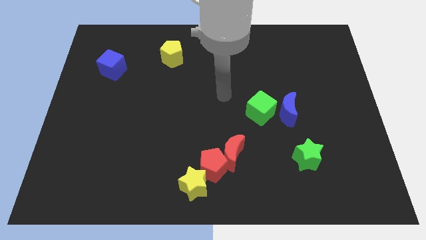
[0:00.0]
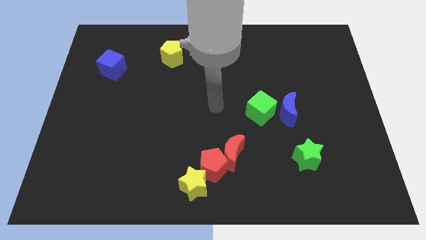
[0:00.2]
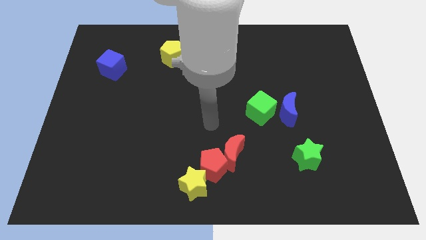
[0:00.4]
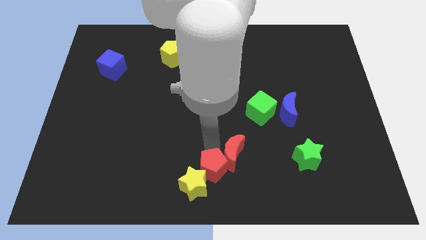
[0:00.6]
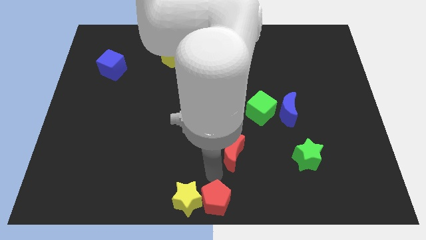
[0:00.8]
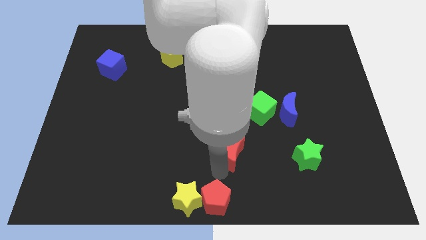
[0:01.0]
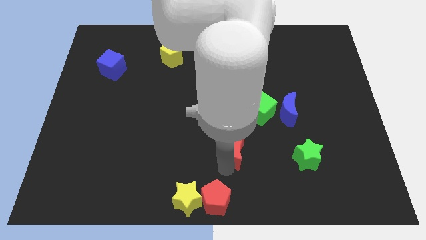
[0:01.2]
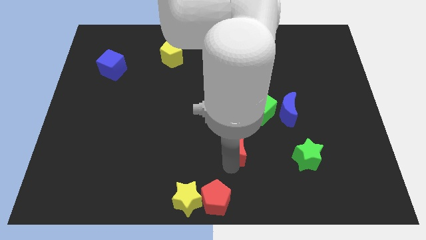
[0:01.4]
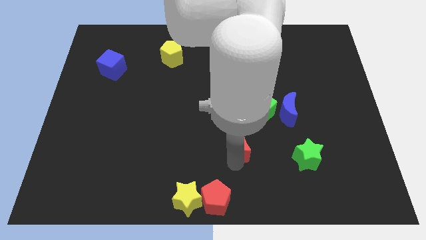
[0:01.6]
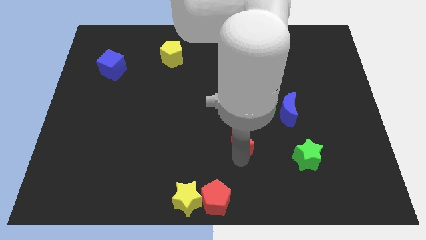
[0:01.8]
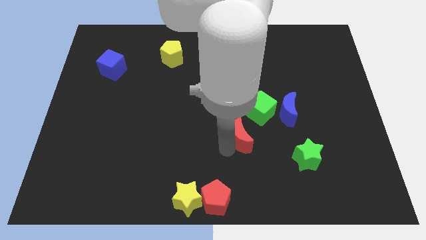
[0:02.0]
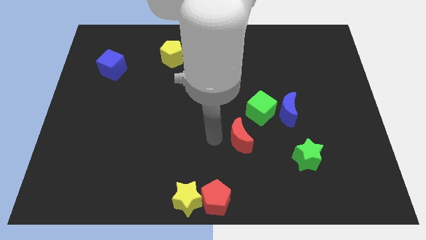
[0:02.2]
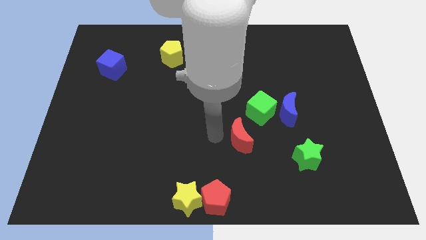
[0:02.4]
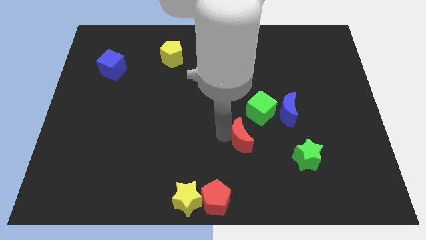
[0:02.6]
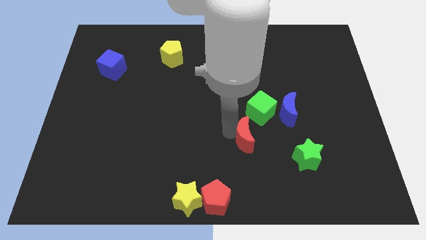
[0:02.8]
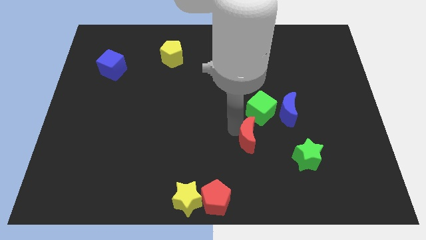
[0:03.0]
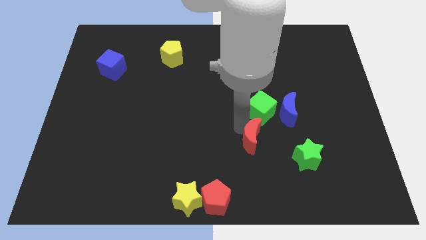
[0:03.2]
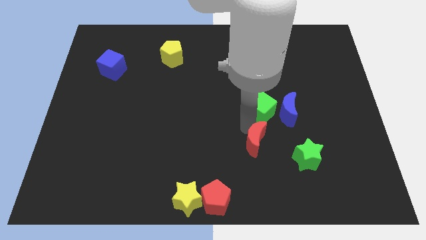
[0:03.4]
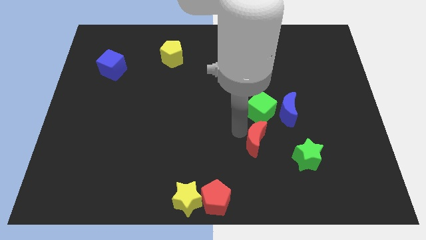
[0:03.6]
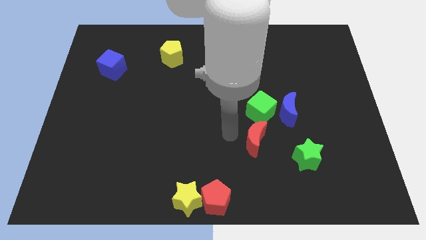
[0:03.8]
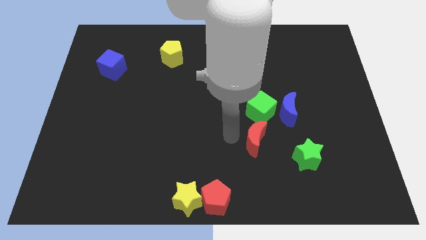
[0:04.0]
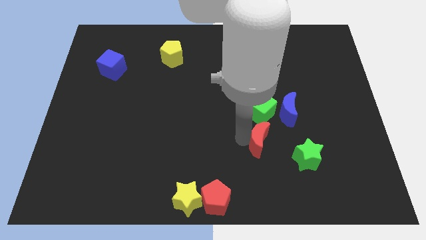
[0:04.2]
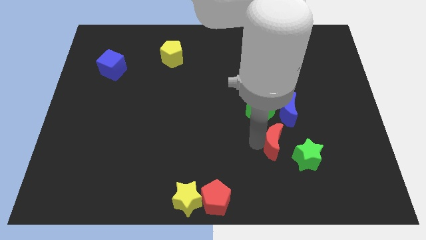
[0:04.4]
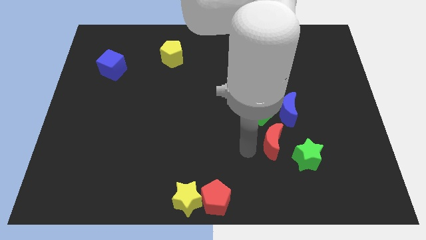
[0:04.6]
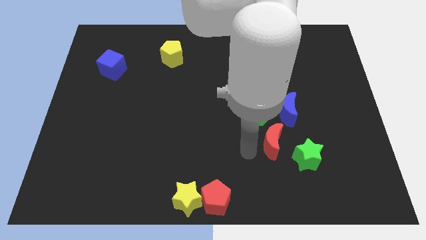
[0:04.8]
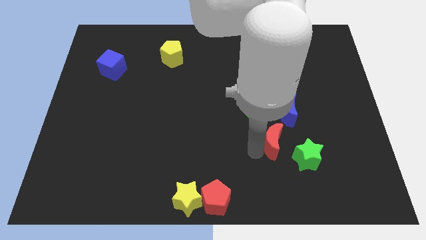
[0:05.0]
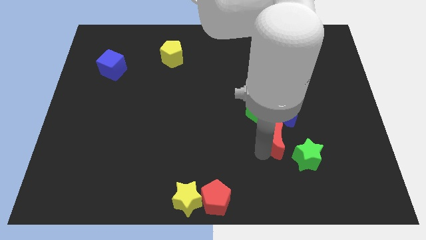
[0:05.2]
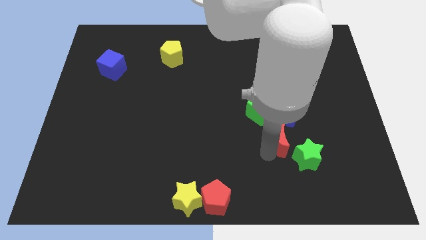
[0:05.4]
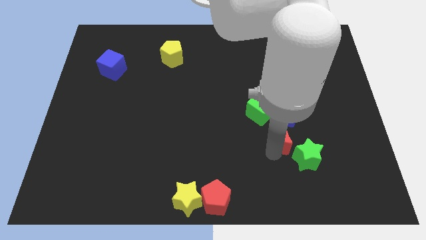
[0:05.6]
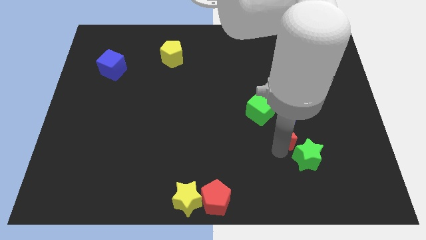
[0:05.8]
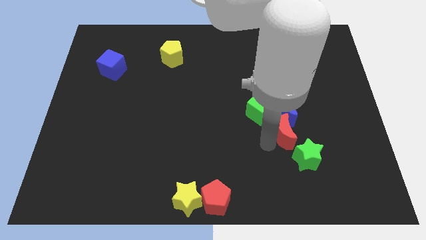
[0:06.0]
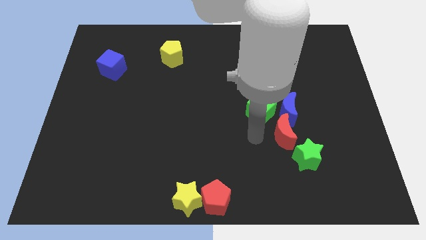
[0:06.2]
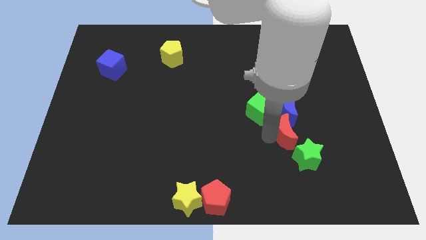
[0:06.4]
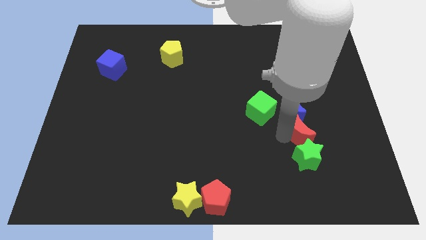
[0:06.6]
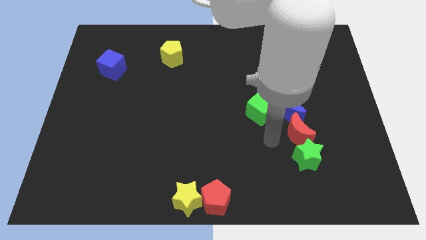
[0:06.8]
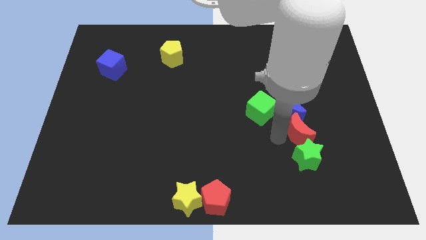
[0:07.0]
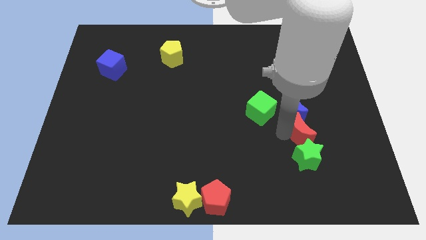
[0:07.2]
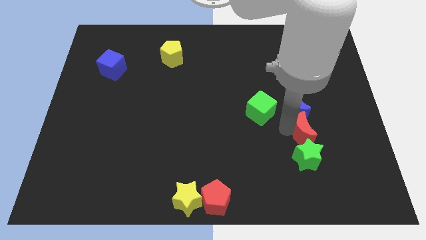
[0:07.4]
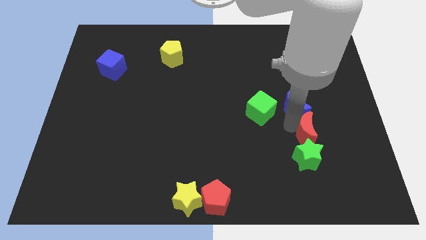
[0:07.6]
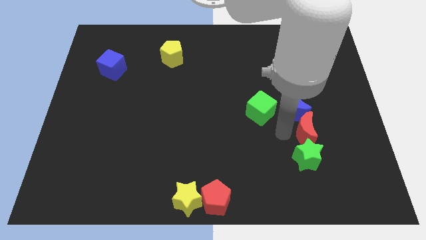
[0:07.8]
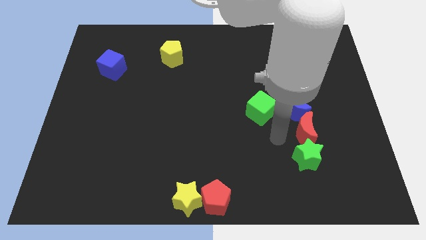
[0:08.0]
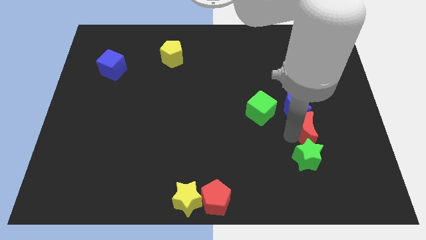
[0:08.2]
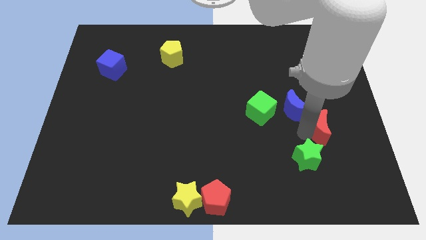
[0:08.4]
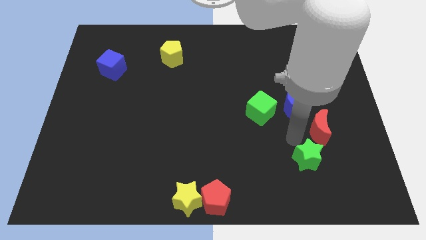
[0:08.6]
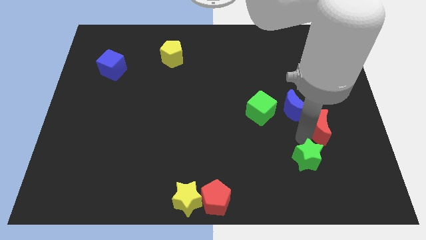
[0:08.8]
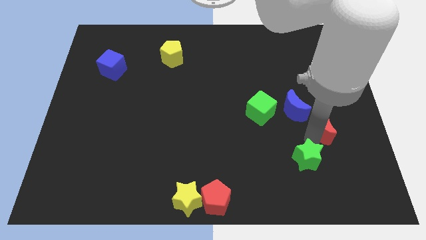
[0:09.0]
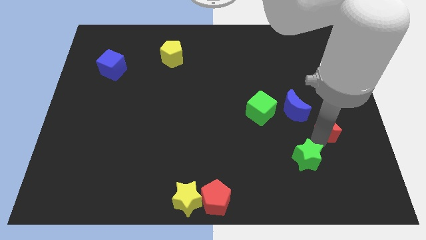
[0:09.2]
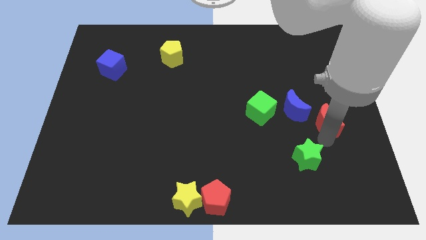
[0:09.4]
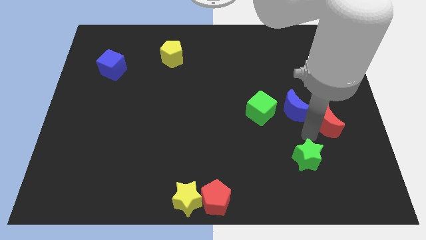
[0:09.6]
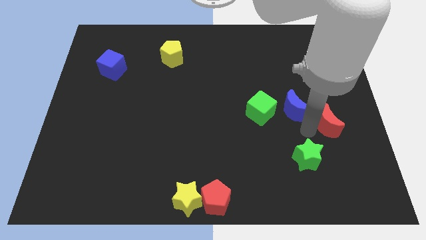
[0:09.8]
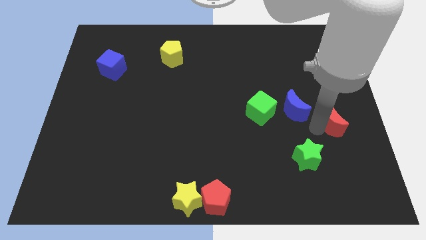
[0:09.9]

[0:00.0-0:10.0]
push the red moon to the right side
